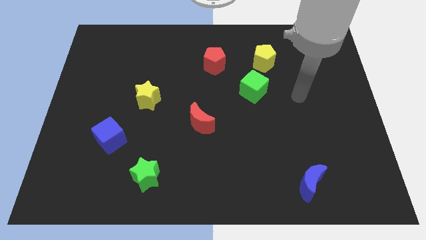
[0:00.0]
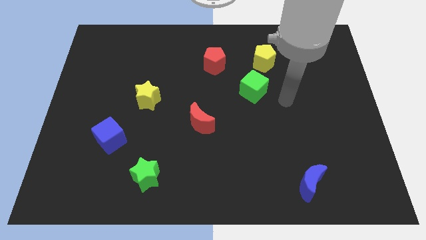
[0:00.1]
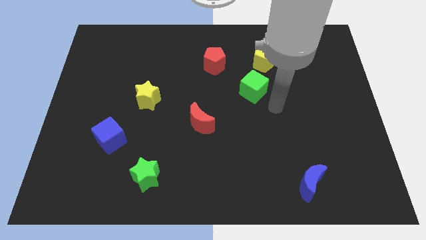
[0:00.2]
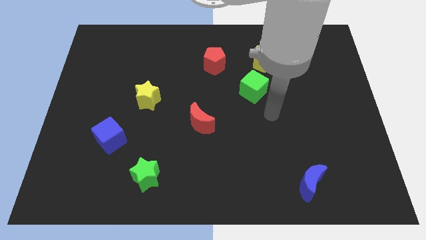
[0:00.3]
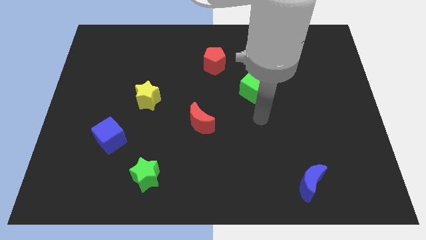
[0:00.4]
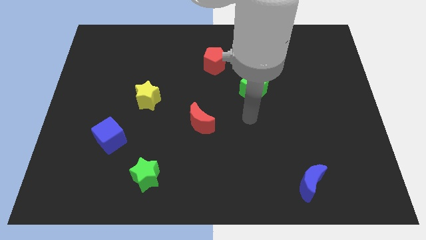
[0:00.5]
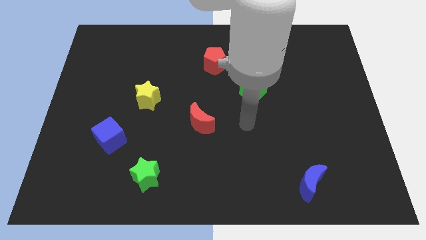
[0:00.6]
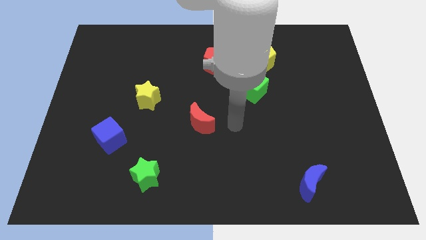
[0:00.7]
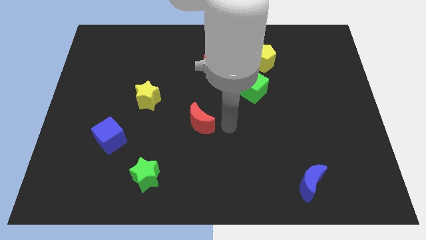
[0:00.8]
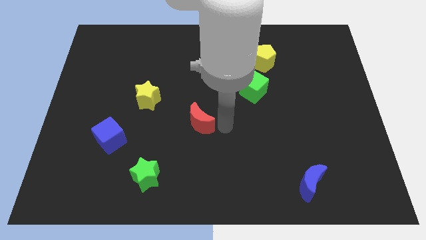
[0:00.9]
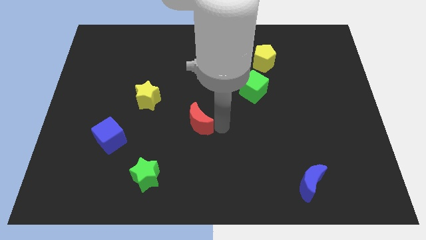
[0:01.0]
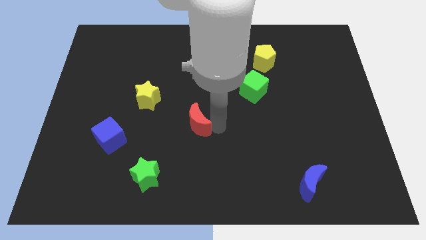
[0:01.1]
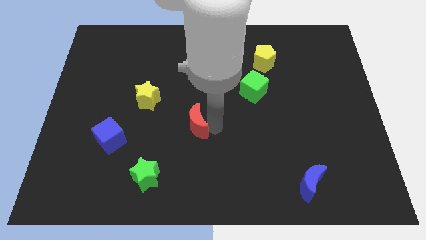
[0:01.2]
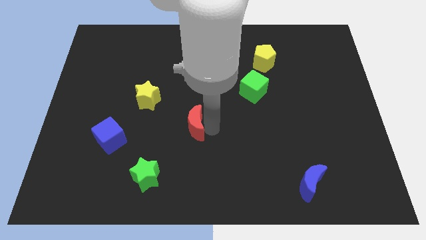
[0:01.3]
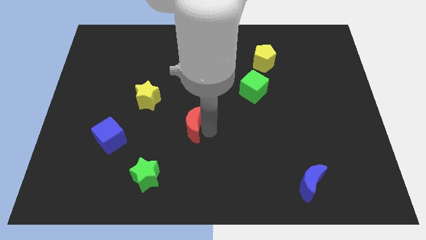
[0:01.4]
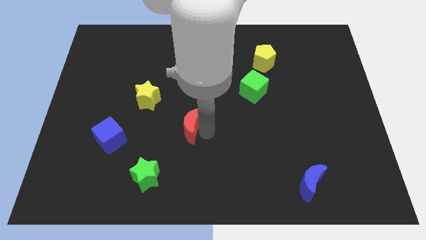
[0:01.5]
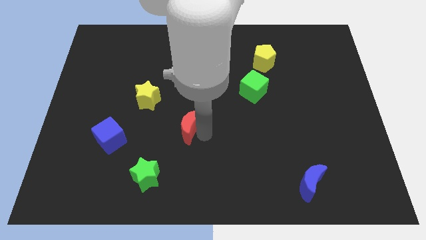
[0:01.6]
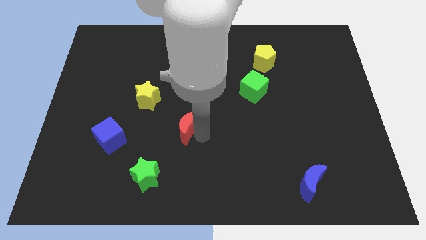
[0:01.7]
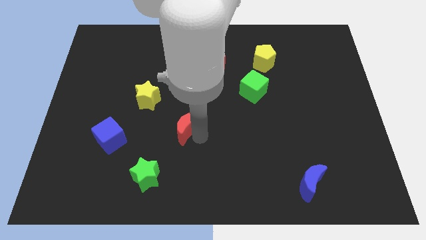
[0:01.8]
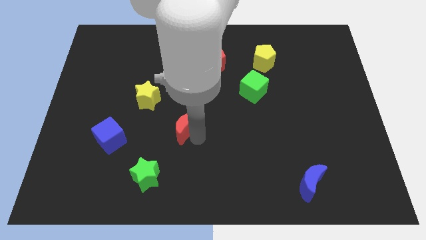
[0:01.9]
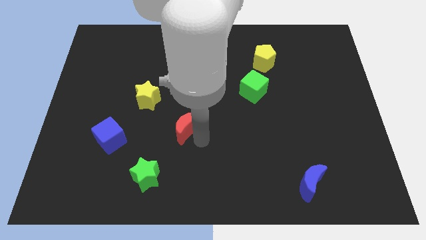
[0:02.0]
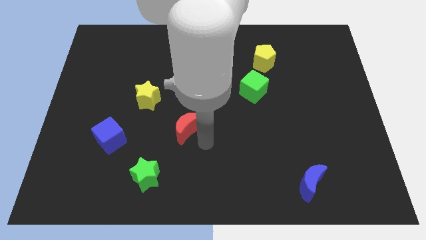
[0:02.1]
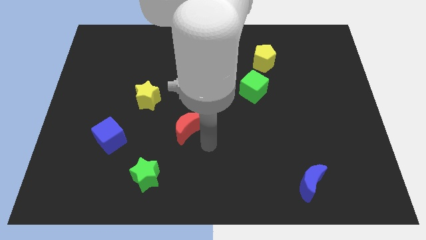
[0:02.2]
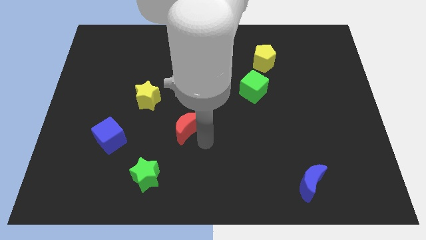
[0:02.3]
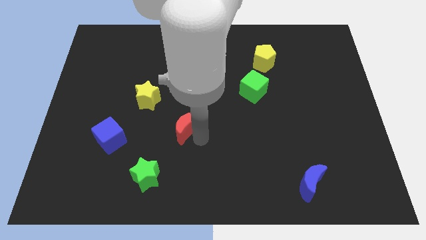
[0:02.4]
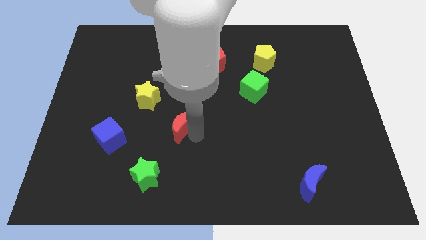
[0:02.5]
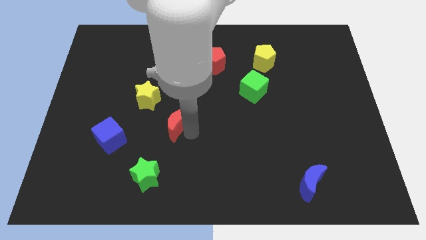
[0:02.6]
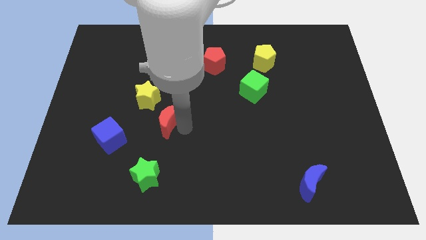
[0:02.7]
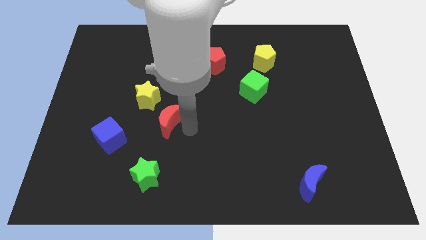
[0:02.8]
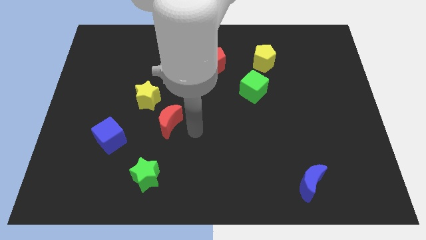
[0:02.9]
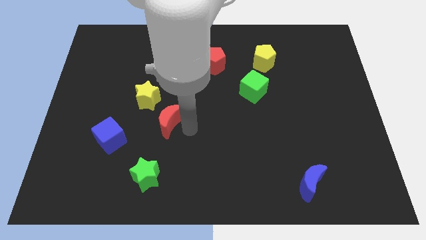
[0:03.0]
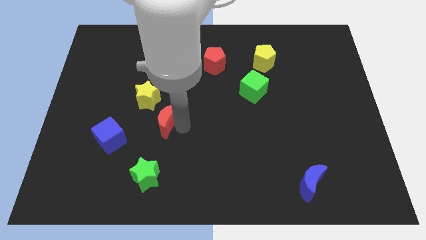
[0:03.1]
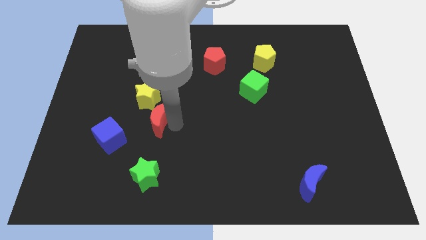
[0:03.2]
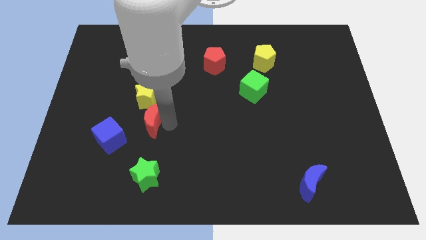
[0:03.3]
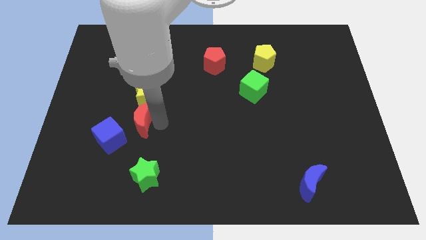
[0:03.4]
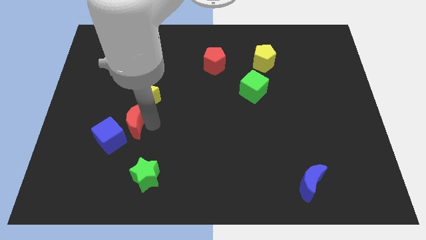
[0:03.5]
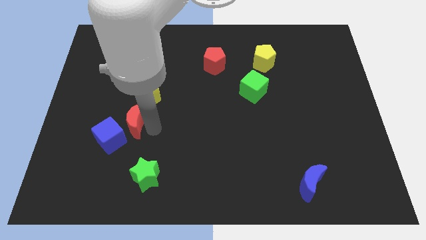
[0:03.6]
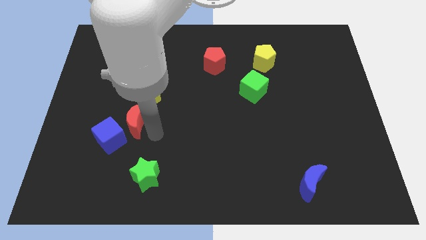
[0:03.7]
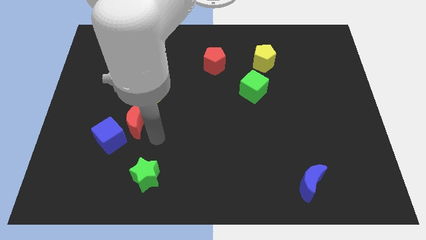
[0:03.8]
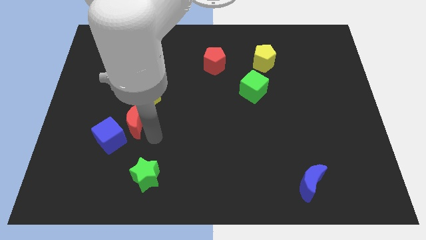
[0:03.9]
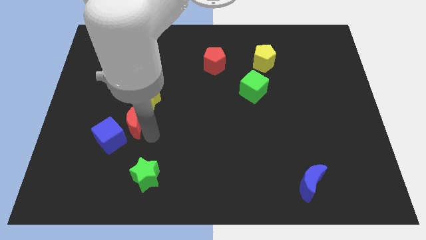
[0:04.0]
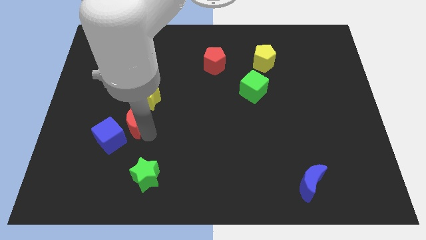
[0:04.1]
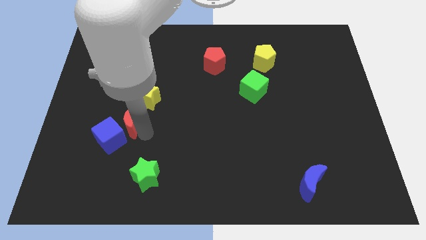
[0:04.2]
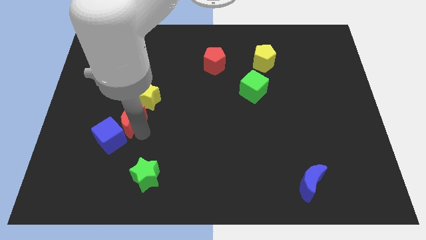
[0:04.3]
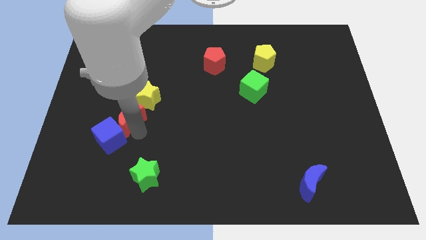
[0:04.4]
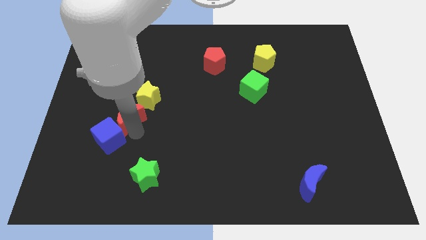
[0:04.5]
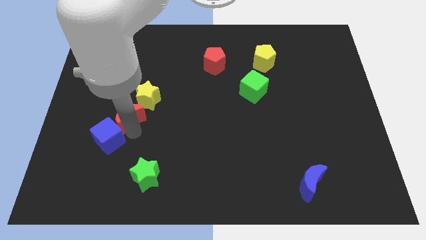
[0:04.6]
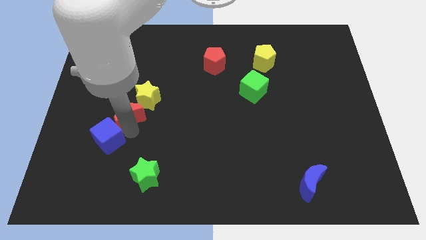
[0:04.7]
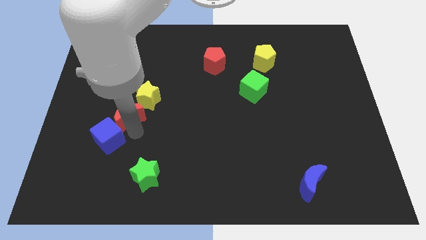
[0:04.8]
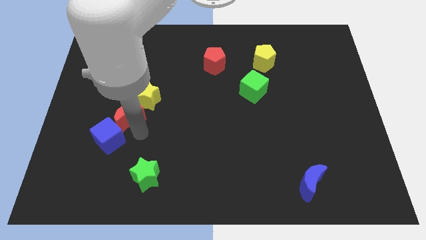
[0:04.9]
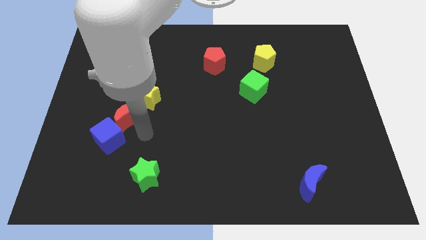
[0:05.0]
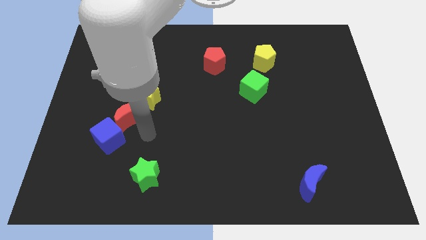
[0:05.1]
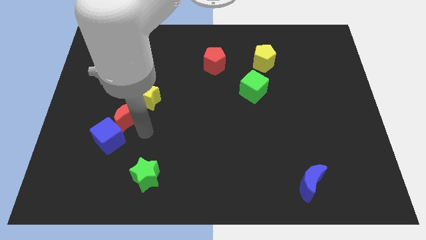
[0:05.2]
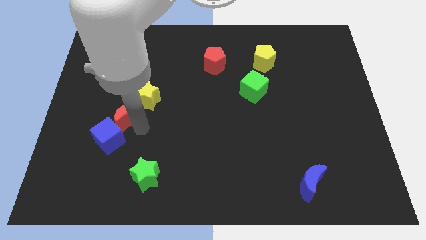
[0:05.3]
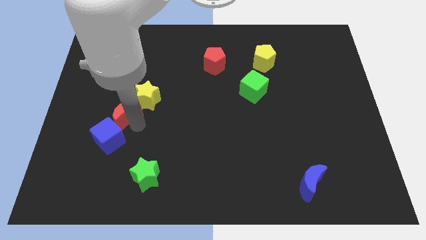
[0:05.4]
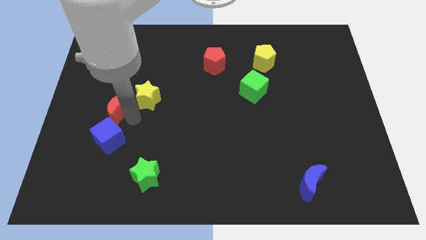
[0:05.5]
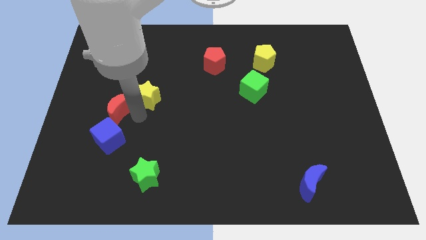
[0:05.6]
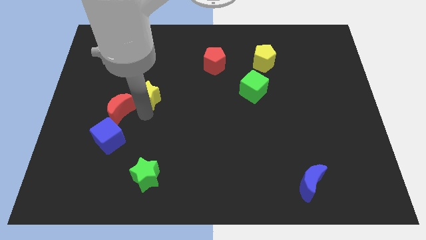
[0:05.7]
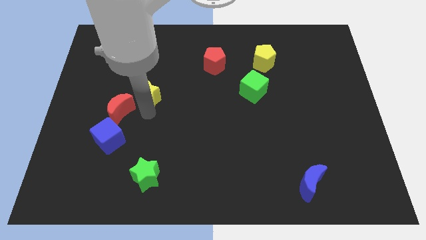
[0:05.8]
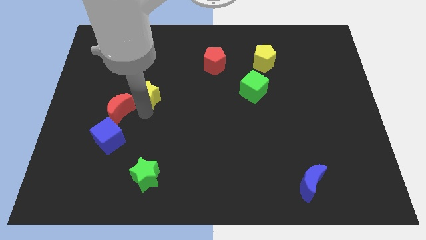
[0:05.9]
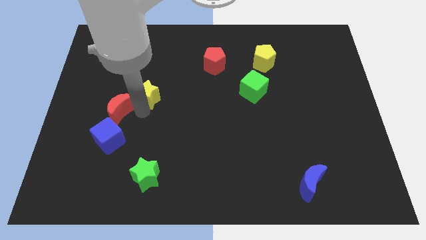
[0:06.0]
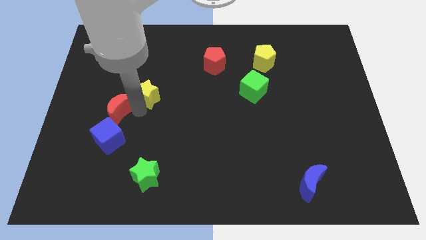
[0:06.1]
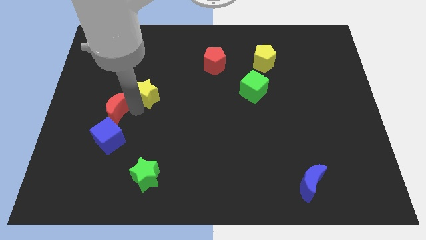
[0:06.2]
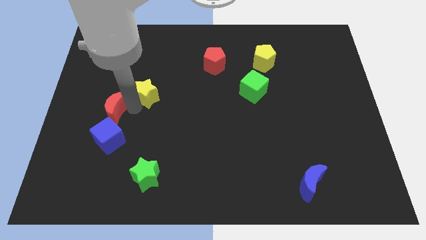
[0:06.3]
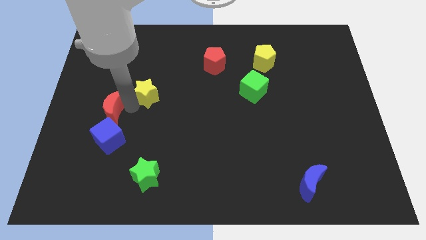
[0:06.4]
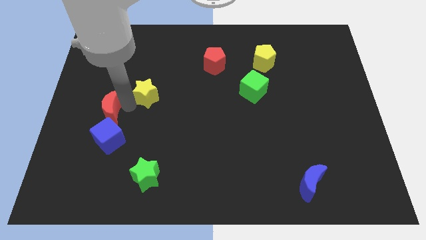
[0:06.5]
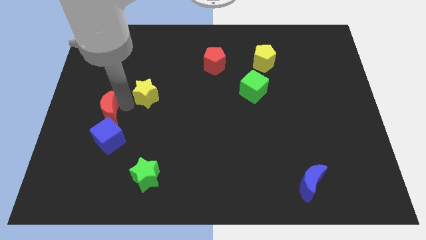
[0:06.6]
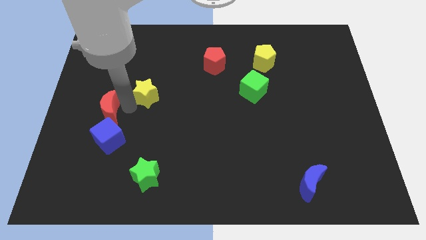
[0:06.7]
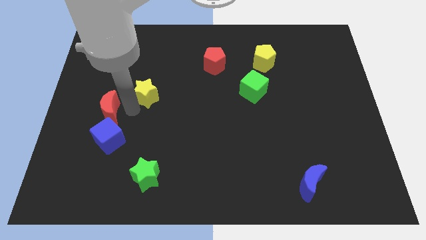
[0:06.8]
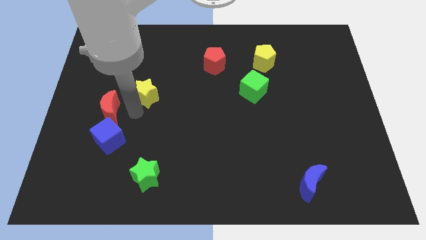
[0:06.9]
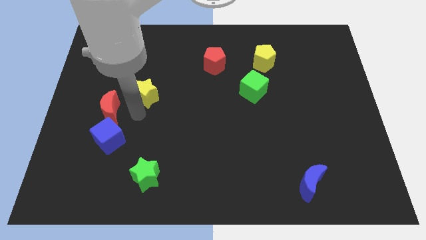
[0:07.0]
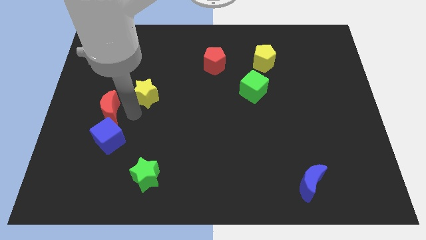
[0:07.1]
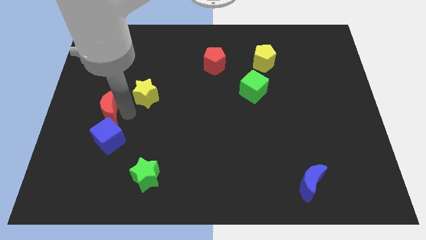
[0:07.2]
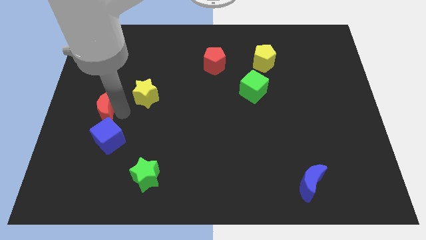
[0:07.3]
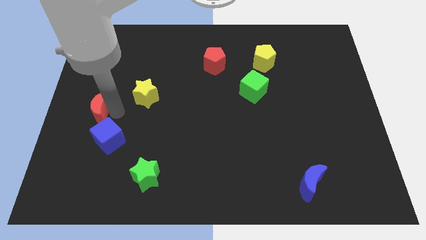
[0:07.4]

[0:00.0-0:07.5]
move the red moon to the left side of the board

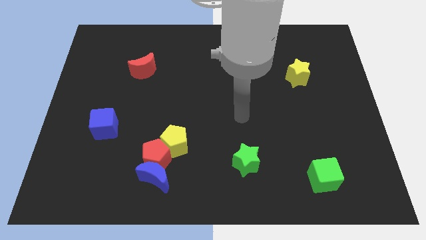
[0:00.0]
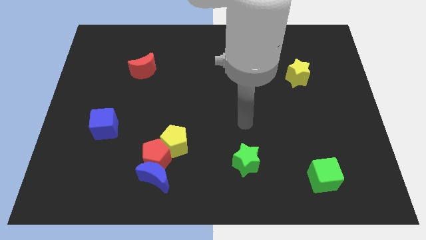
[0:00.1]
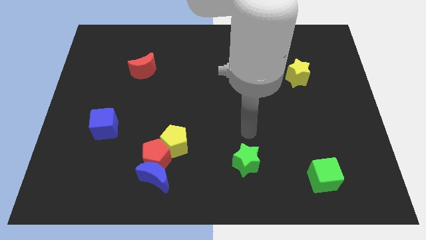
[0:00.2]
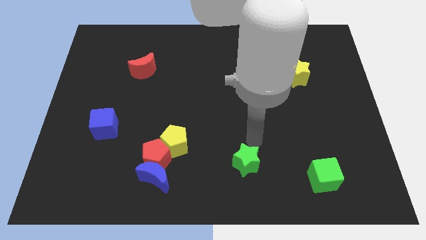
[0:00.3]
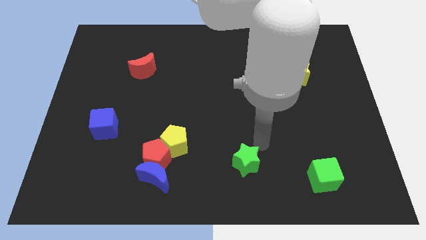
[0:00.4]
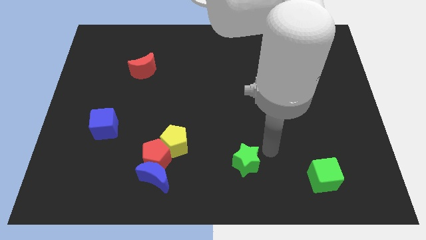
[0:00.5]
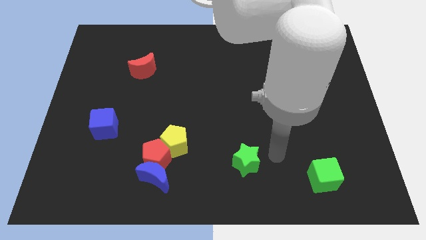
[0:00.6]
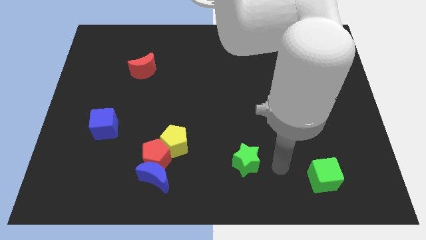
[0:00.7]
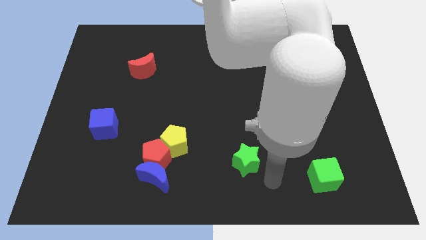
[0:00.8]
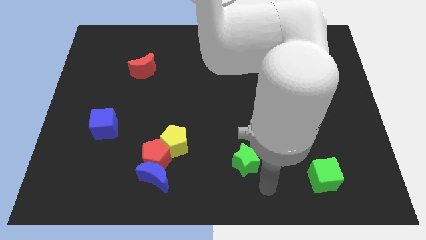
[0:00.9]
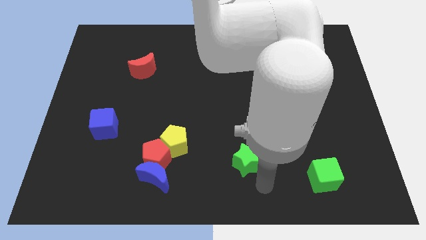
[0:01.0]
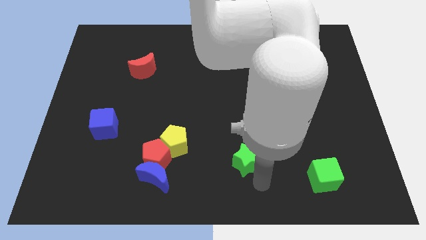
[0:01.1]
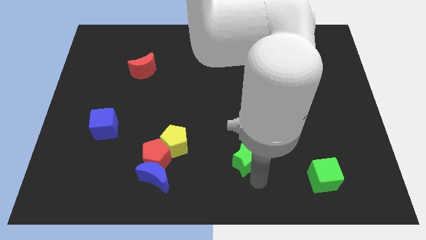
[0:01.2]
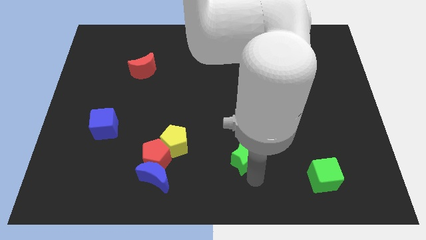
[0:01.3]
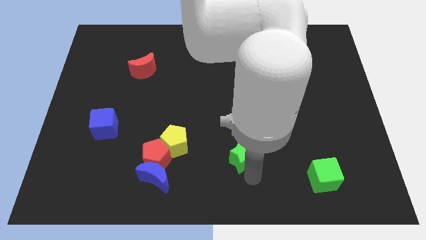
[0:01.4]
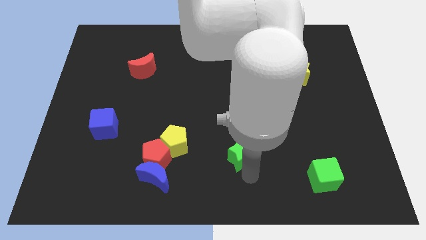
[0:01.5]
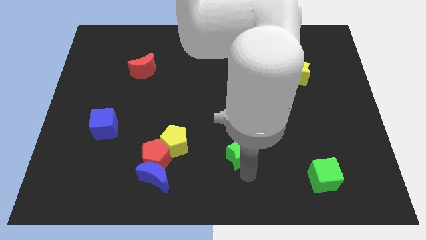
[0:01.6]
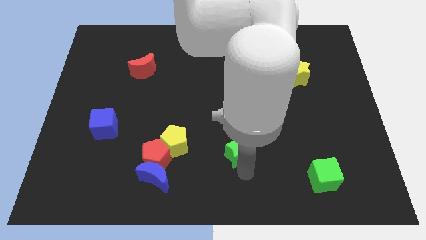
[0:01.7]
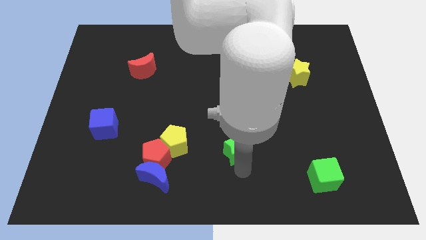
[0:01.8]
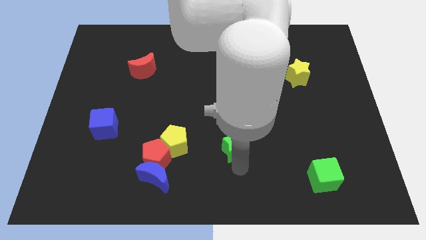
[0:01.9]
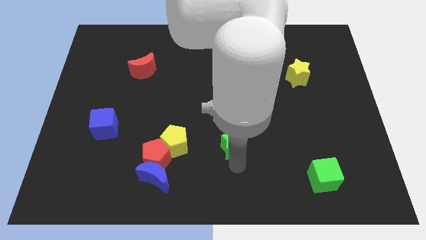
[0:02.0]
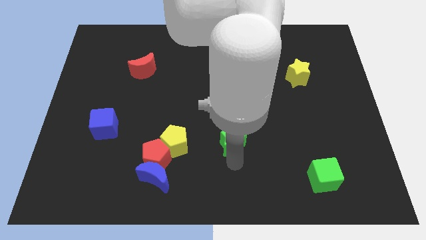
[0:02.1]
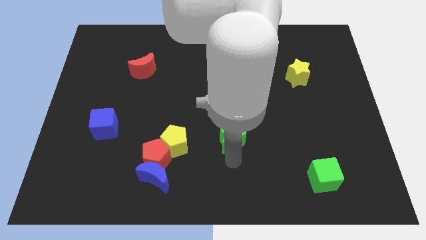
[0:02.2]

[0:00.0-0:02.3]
slide the green star to the center
